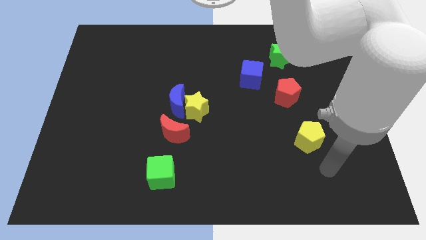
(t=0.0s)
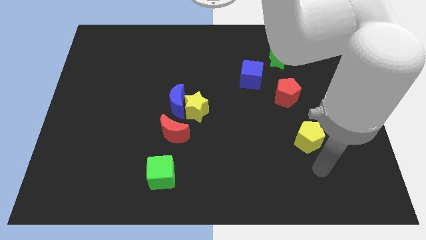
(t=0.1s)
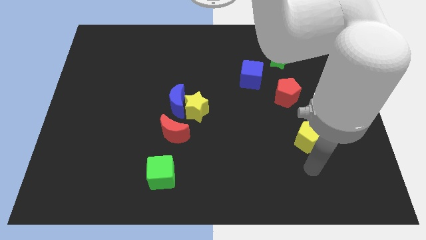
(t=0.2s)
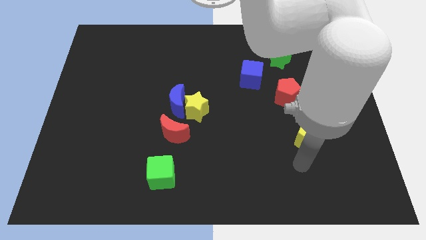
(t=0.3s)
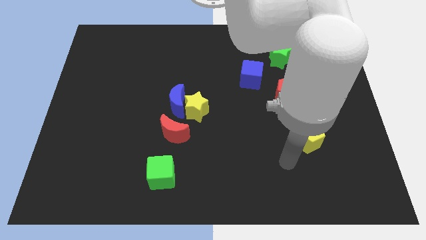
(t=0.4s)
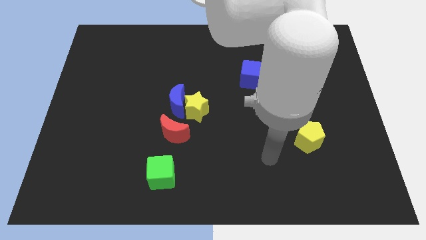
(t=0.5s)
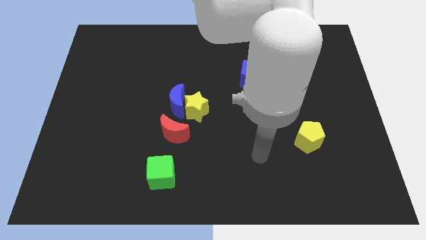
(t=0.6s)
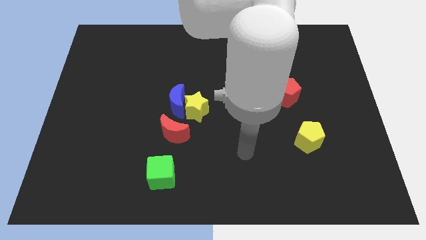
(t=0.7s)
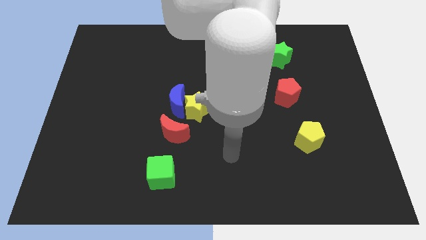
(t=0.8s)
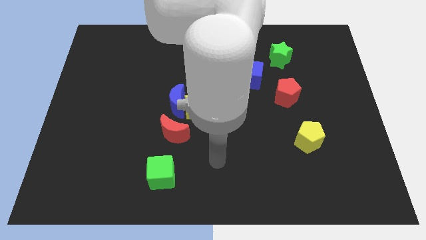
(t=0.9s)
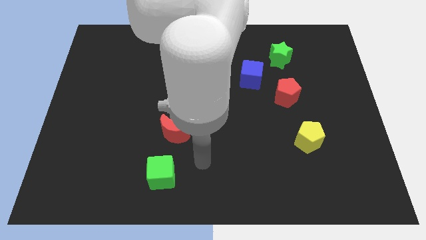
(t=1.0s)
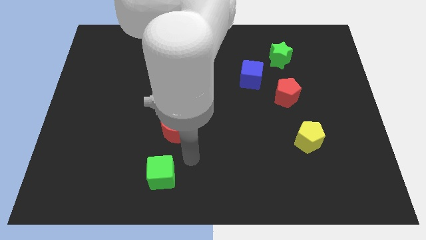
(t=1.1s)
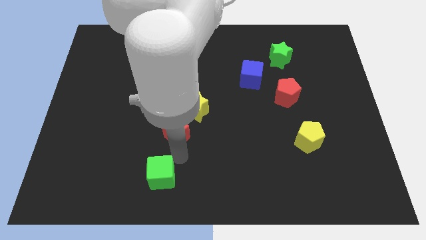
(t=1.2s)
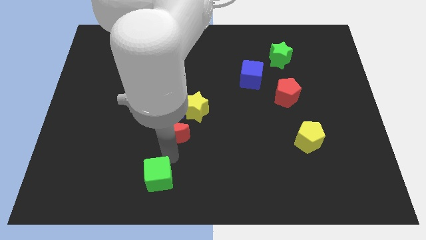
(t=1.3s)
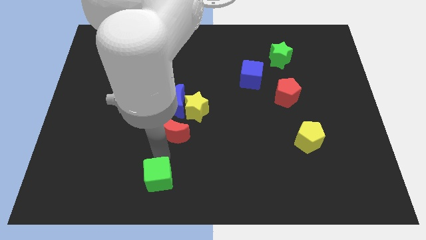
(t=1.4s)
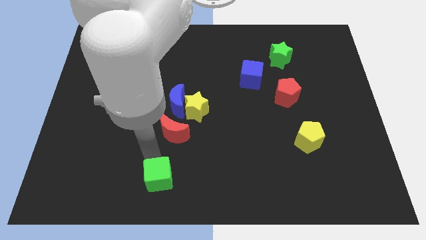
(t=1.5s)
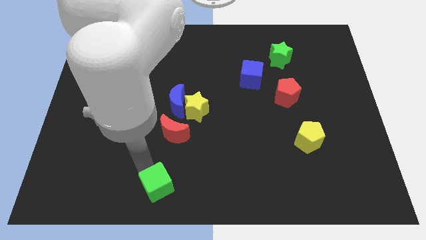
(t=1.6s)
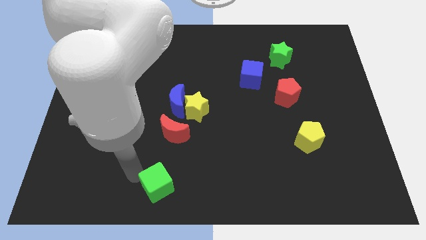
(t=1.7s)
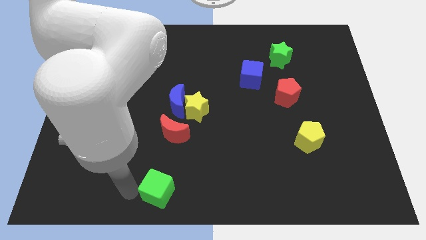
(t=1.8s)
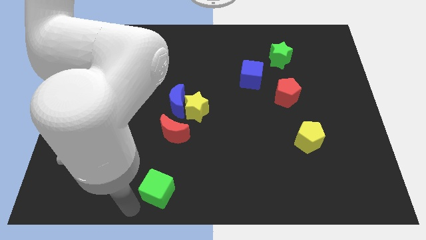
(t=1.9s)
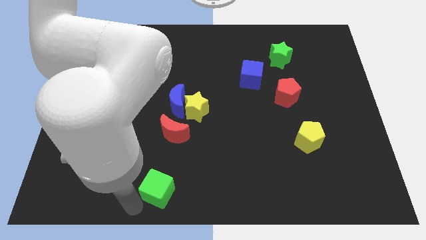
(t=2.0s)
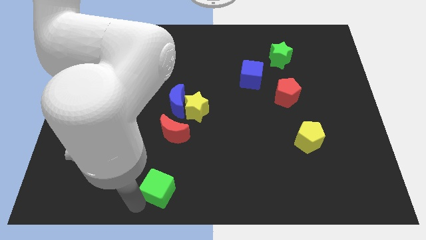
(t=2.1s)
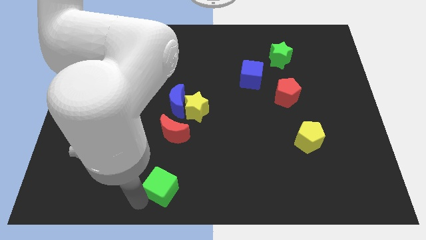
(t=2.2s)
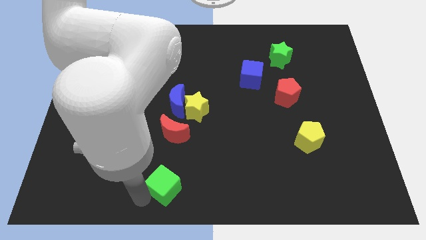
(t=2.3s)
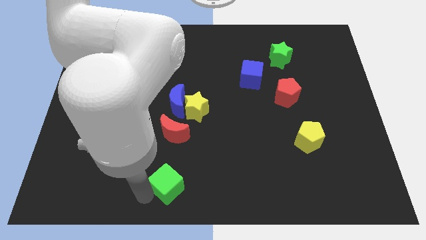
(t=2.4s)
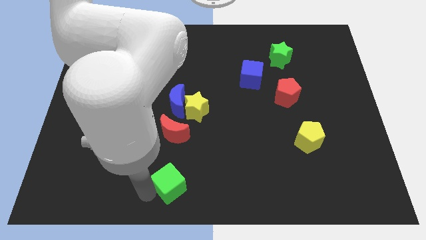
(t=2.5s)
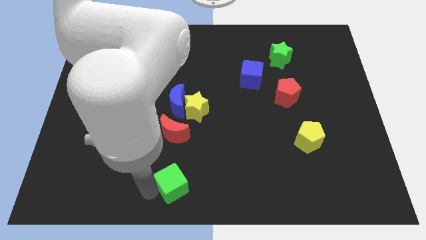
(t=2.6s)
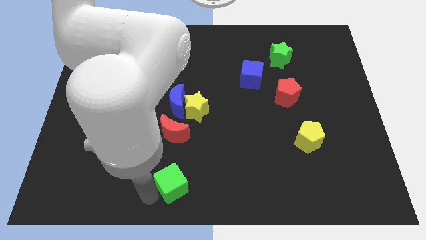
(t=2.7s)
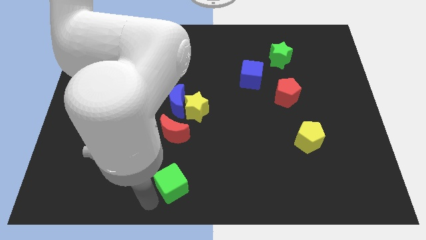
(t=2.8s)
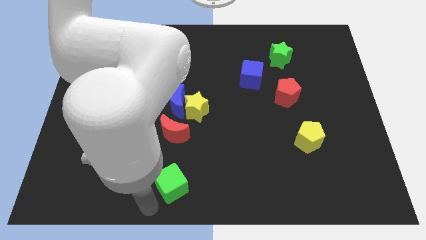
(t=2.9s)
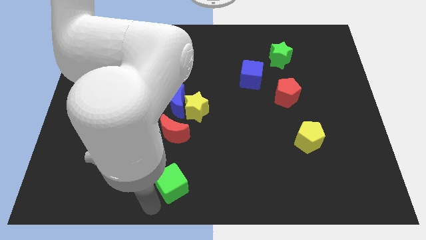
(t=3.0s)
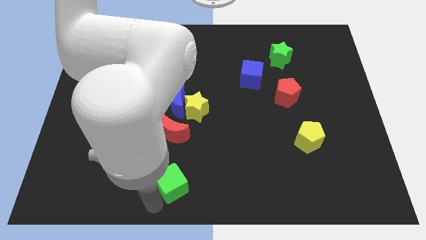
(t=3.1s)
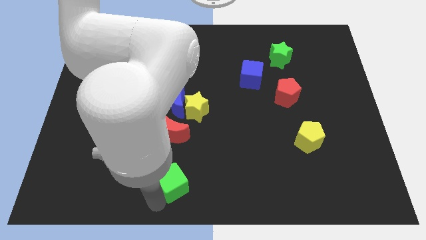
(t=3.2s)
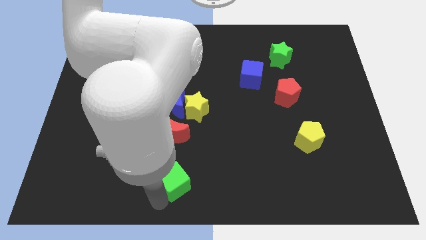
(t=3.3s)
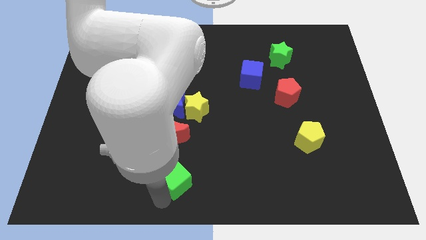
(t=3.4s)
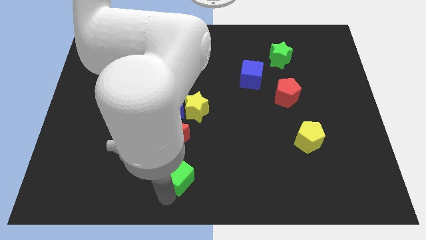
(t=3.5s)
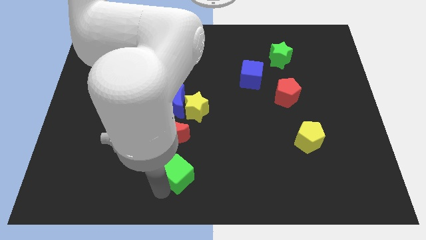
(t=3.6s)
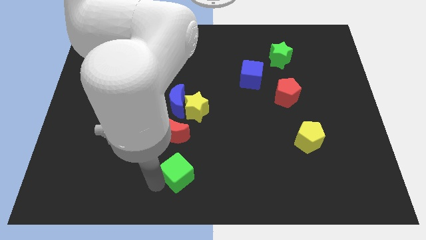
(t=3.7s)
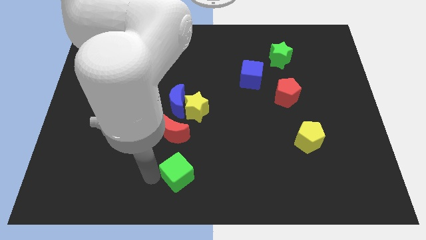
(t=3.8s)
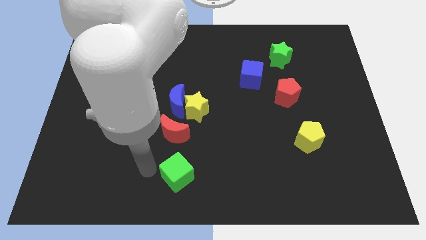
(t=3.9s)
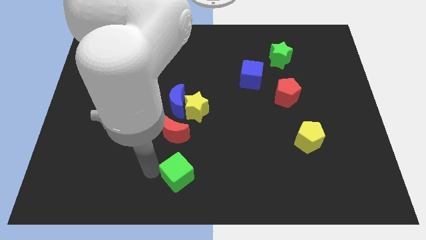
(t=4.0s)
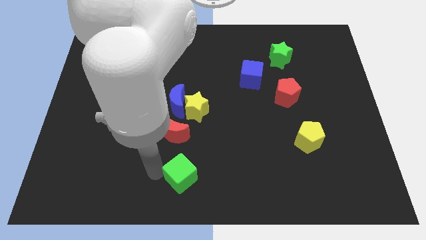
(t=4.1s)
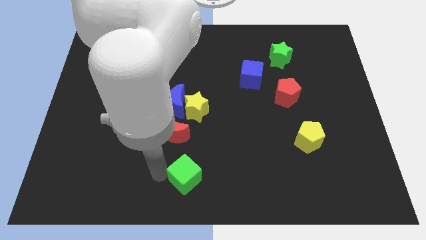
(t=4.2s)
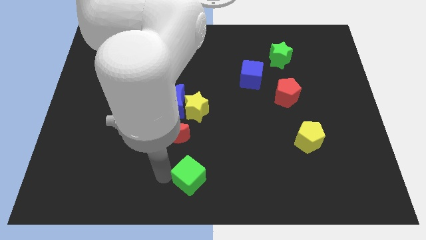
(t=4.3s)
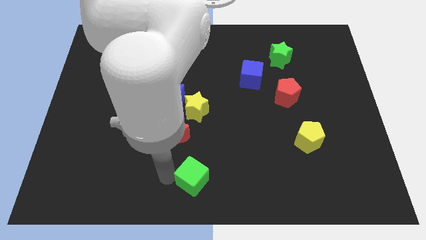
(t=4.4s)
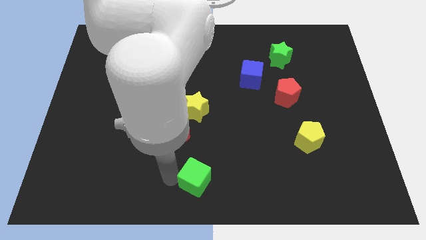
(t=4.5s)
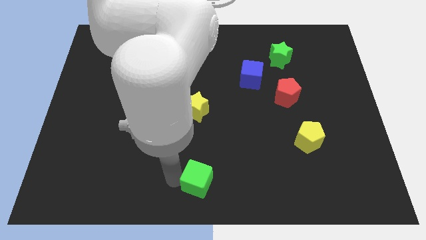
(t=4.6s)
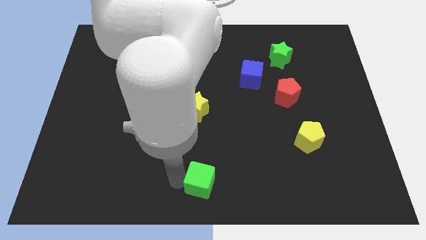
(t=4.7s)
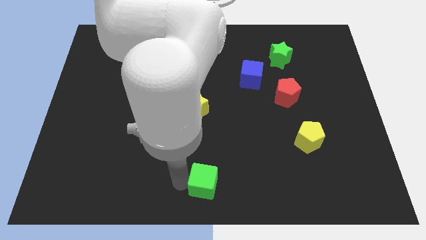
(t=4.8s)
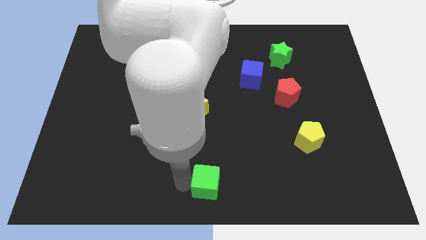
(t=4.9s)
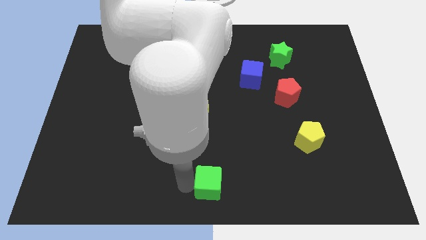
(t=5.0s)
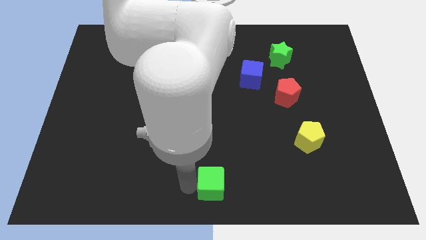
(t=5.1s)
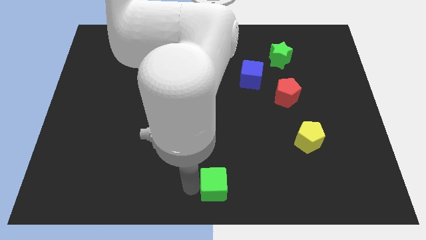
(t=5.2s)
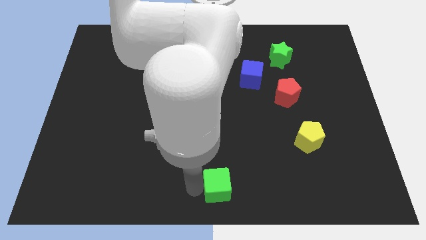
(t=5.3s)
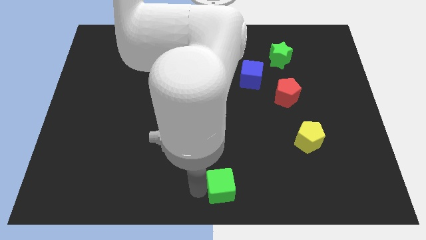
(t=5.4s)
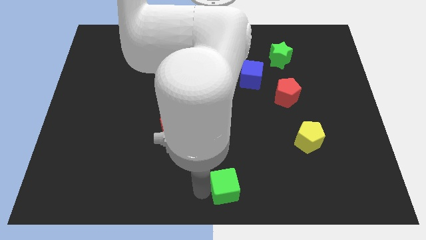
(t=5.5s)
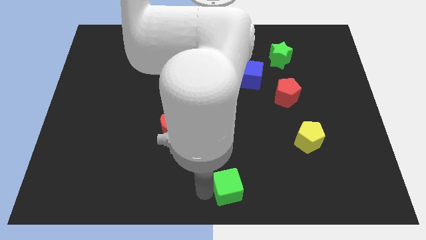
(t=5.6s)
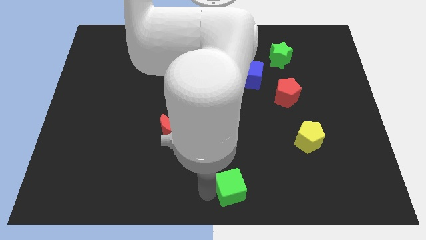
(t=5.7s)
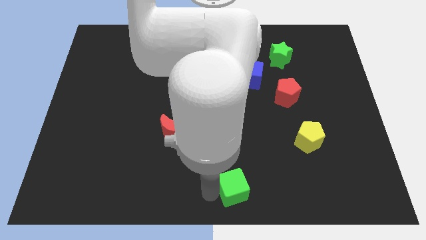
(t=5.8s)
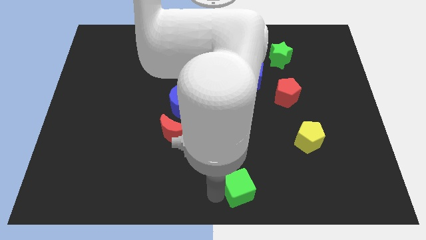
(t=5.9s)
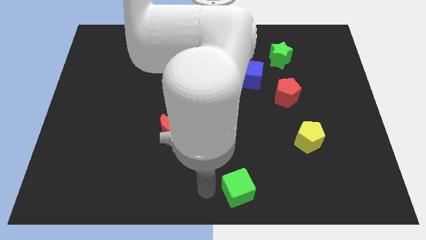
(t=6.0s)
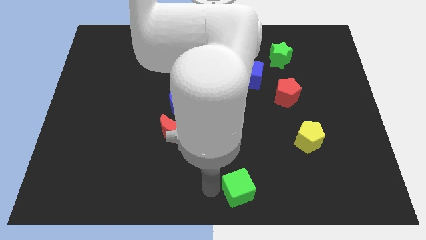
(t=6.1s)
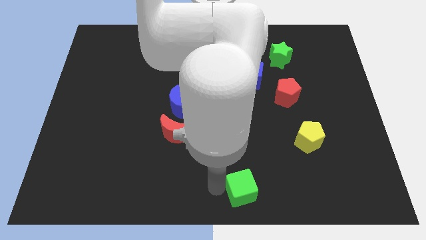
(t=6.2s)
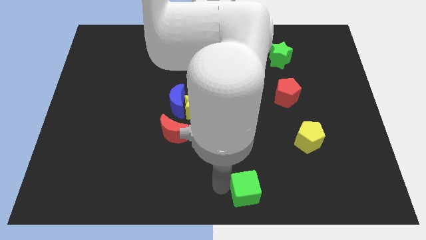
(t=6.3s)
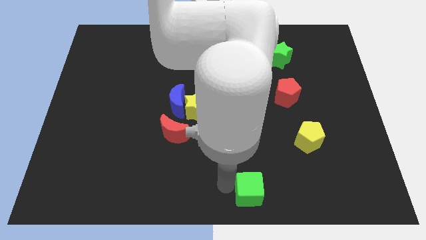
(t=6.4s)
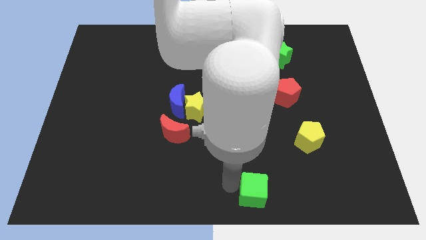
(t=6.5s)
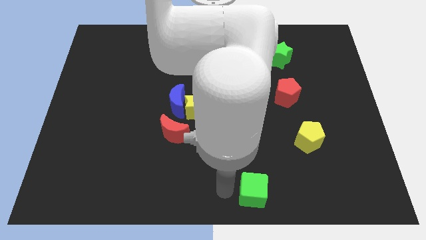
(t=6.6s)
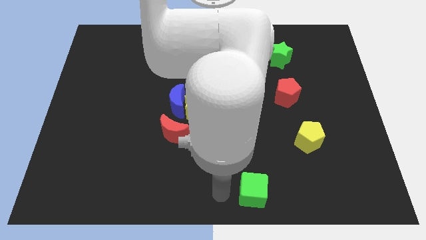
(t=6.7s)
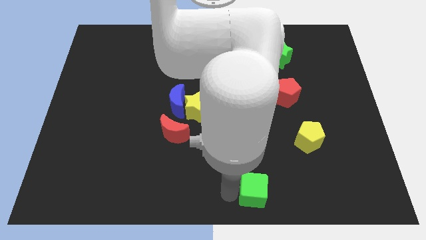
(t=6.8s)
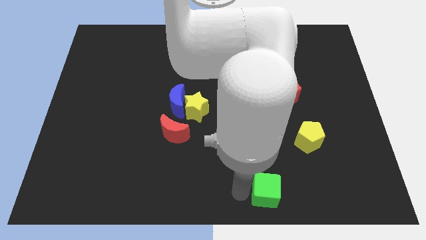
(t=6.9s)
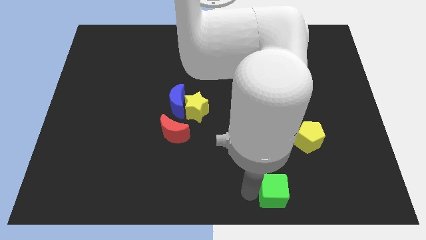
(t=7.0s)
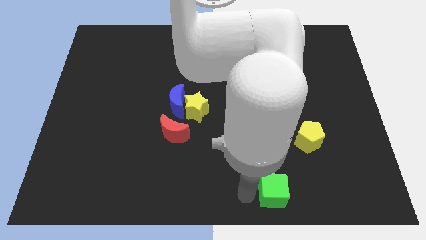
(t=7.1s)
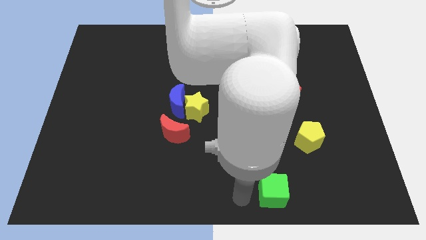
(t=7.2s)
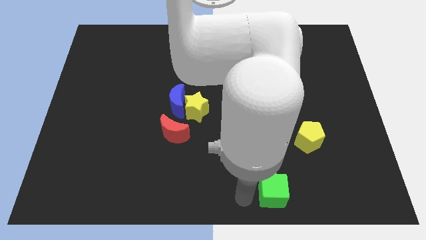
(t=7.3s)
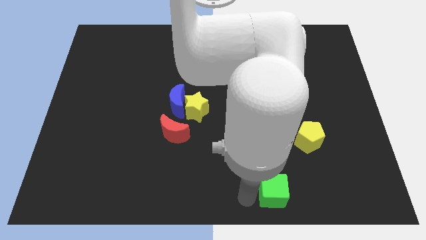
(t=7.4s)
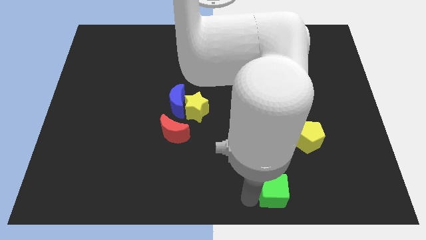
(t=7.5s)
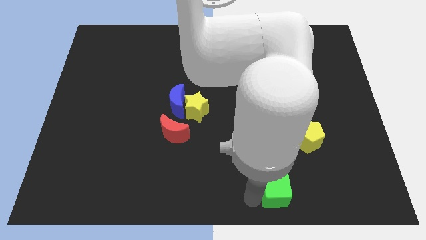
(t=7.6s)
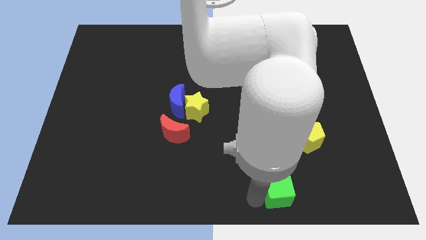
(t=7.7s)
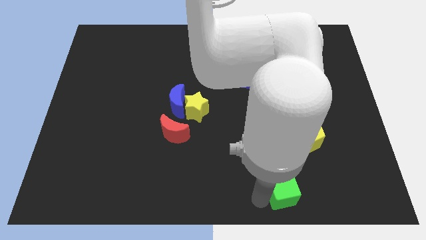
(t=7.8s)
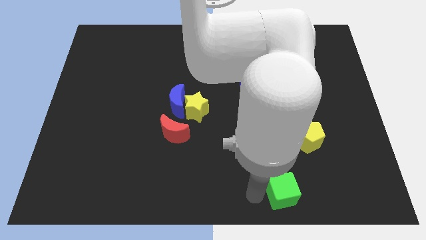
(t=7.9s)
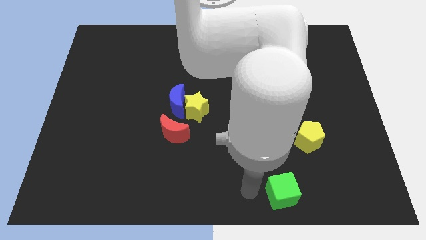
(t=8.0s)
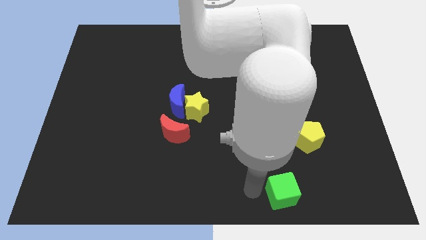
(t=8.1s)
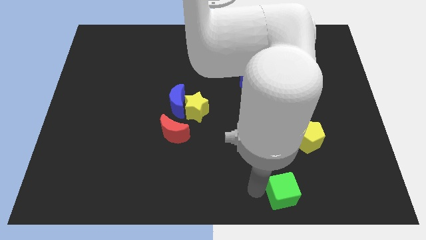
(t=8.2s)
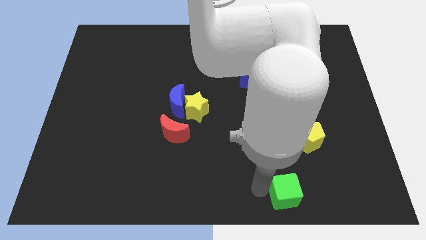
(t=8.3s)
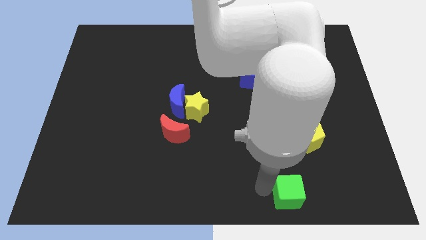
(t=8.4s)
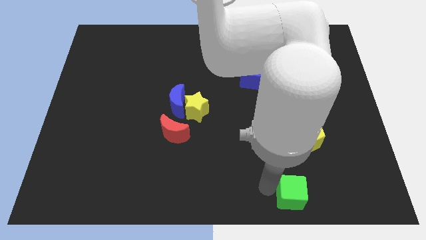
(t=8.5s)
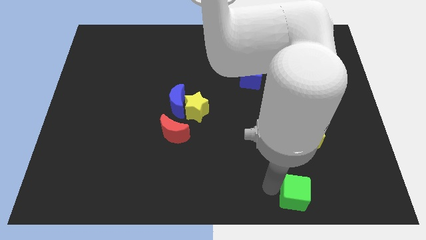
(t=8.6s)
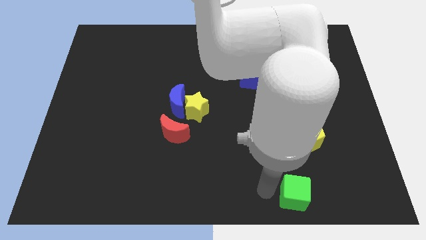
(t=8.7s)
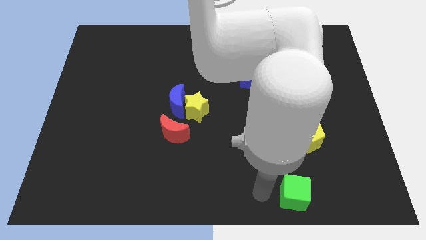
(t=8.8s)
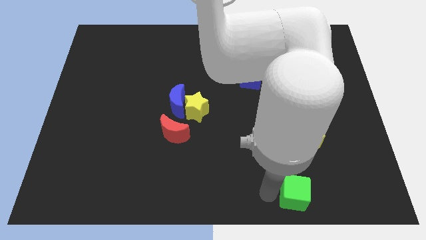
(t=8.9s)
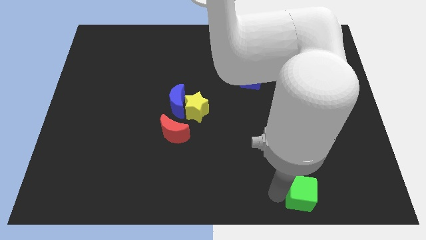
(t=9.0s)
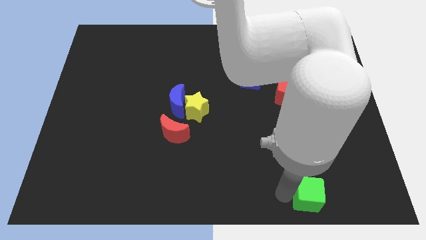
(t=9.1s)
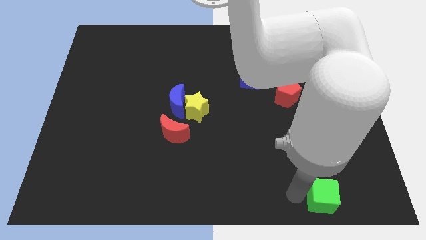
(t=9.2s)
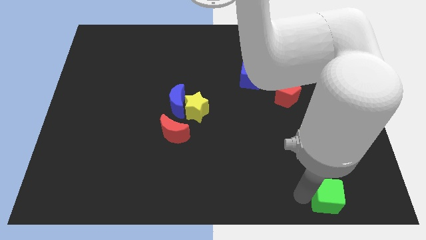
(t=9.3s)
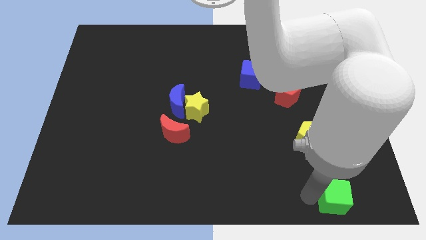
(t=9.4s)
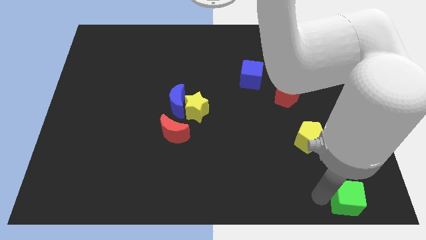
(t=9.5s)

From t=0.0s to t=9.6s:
move the green cube to the bottom right
